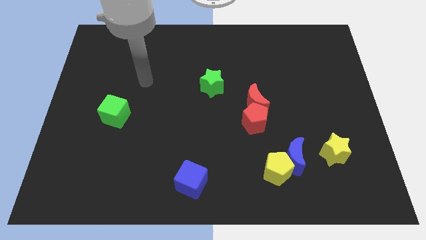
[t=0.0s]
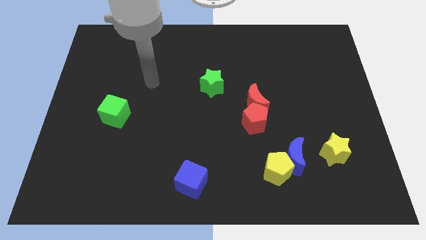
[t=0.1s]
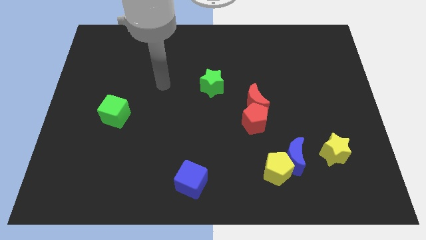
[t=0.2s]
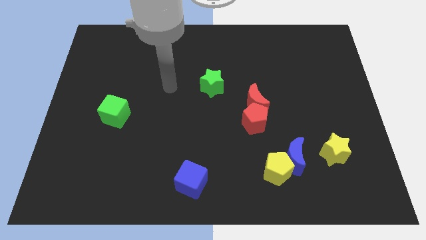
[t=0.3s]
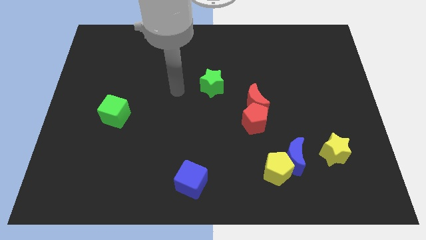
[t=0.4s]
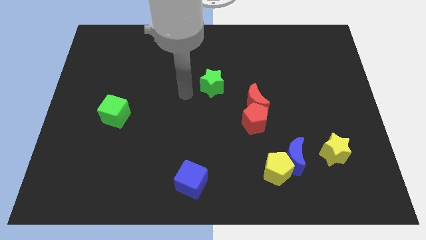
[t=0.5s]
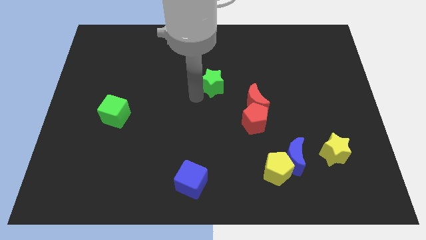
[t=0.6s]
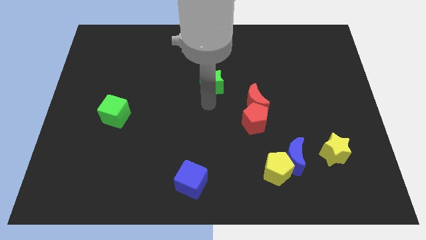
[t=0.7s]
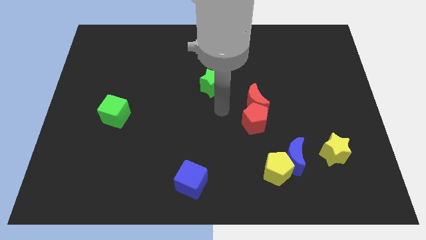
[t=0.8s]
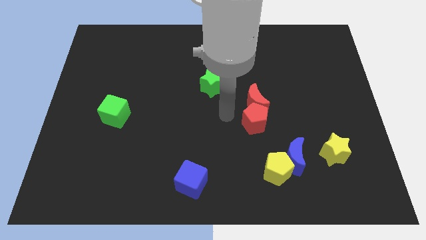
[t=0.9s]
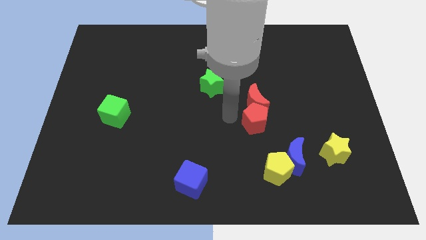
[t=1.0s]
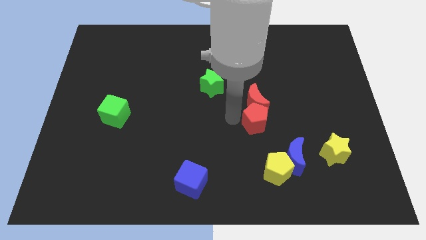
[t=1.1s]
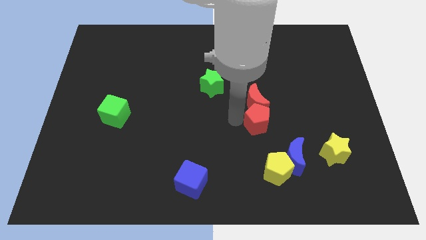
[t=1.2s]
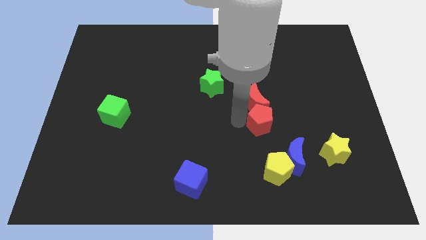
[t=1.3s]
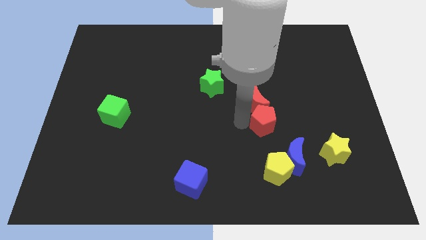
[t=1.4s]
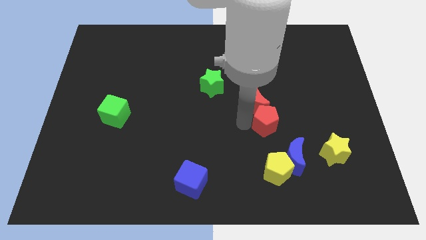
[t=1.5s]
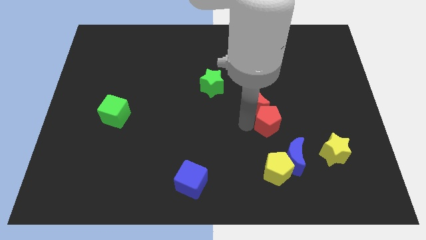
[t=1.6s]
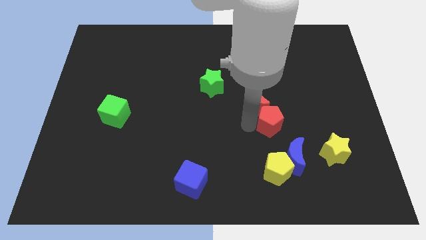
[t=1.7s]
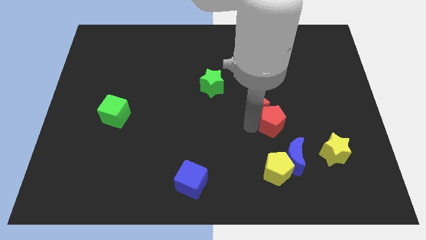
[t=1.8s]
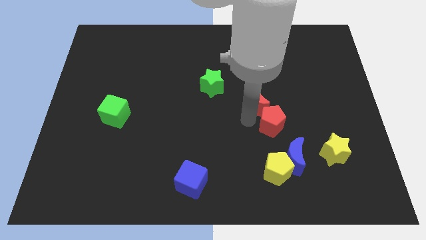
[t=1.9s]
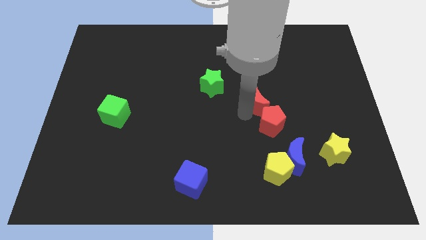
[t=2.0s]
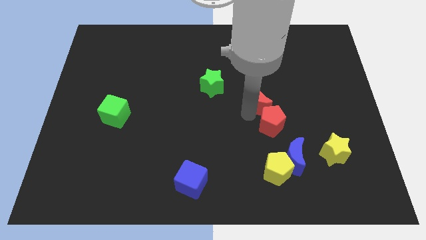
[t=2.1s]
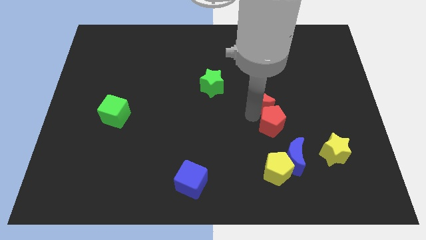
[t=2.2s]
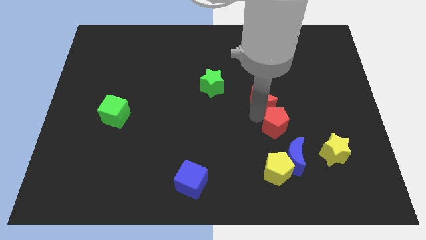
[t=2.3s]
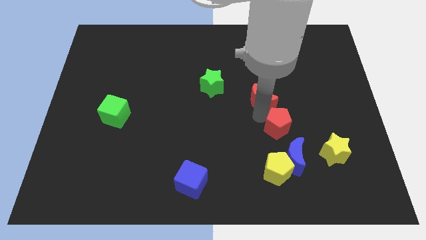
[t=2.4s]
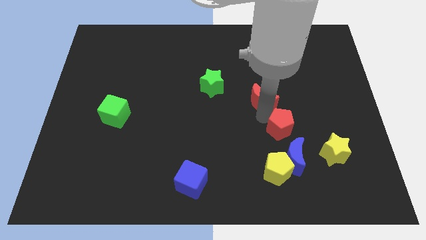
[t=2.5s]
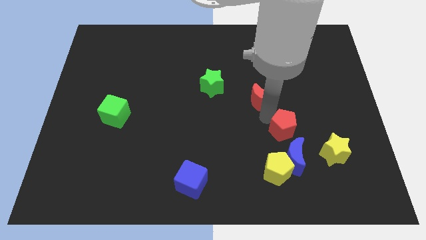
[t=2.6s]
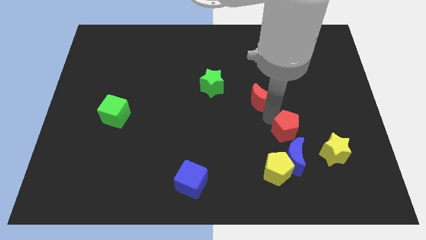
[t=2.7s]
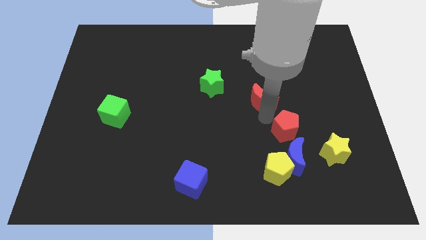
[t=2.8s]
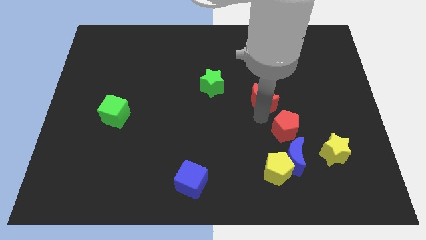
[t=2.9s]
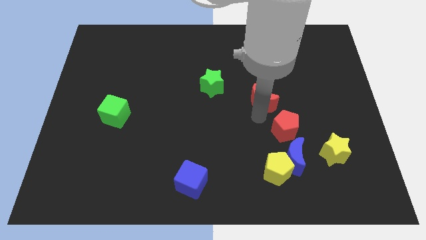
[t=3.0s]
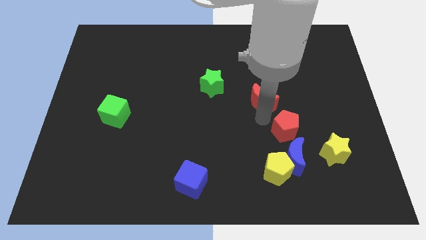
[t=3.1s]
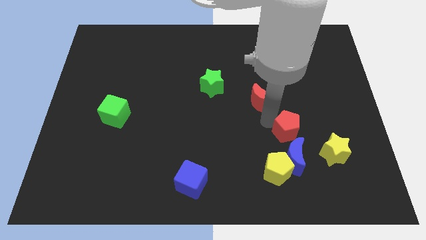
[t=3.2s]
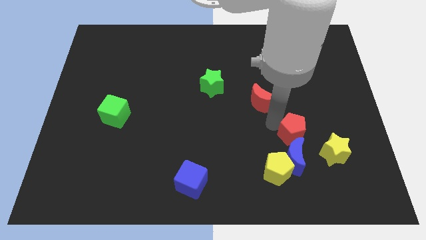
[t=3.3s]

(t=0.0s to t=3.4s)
slide the red pentagon a bit diagonally downwards and to the right

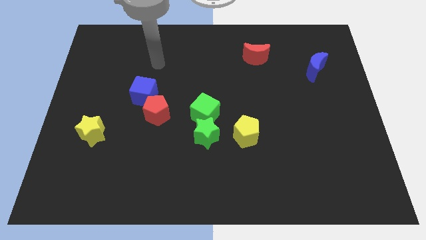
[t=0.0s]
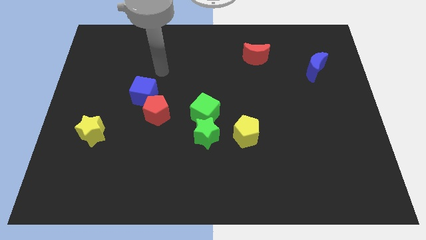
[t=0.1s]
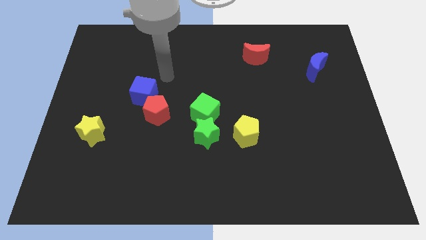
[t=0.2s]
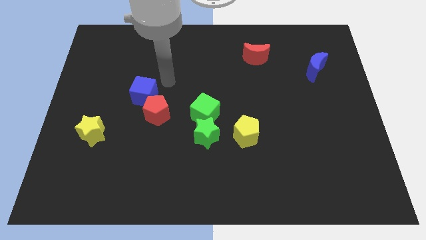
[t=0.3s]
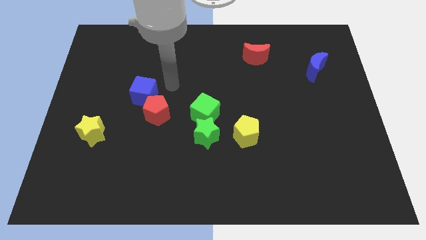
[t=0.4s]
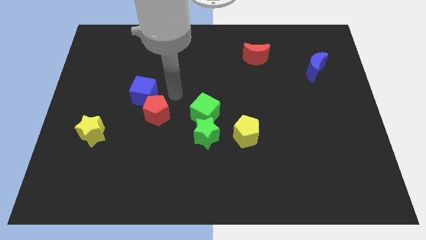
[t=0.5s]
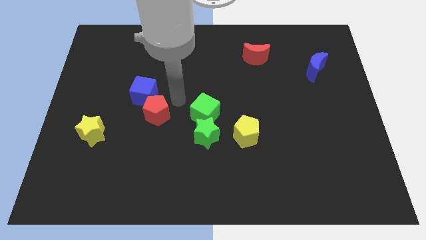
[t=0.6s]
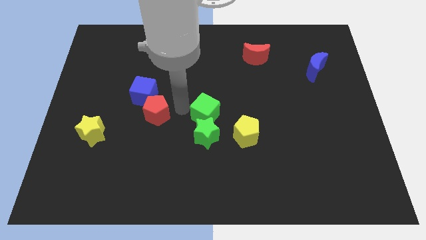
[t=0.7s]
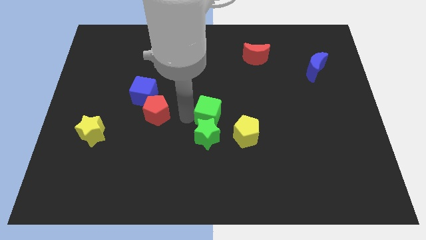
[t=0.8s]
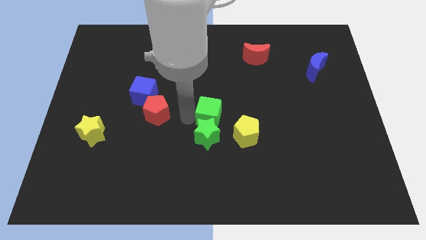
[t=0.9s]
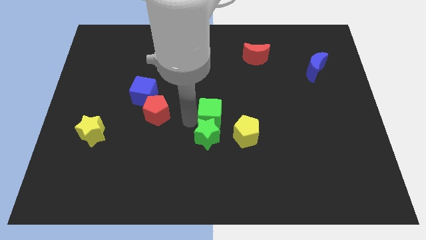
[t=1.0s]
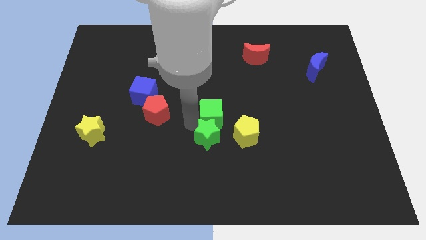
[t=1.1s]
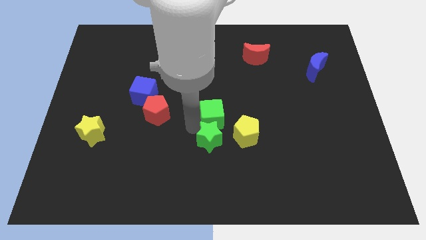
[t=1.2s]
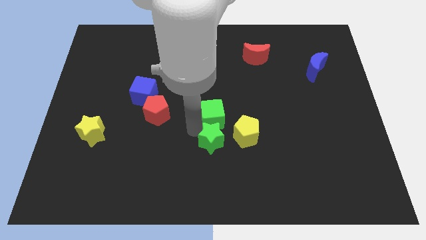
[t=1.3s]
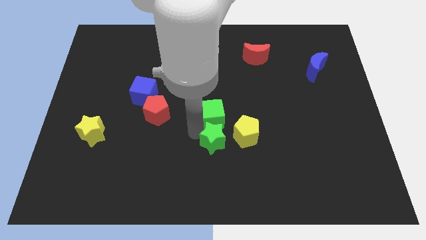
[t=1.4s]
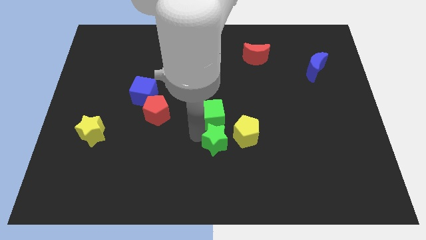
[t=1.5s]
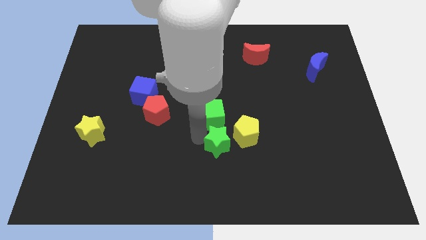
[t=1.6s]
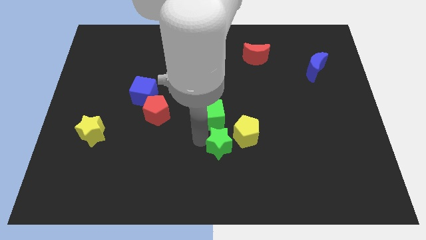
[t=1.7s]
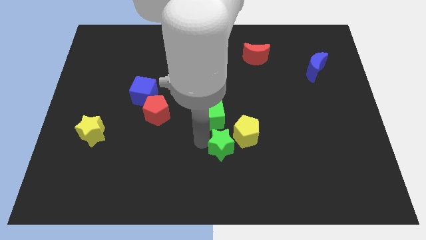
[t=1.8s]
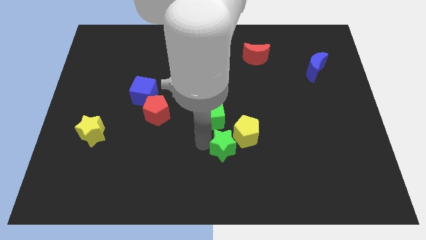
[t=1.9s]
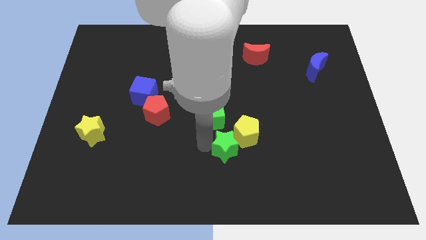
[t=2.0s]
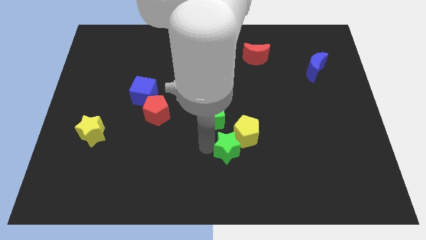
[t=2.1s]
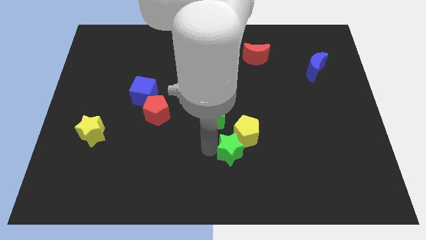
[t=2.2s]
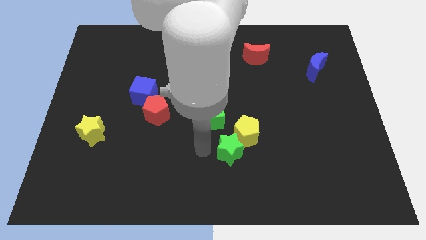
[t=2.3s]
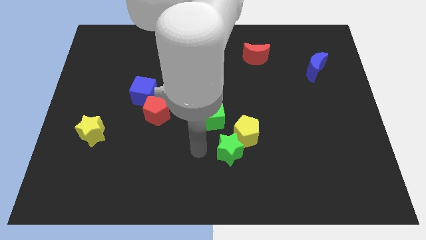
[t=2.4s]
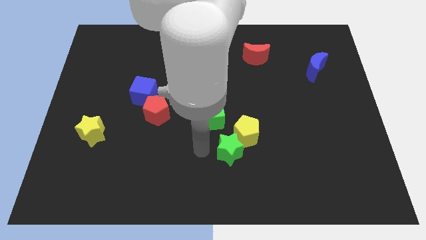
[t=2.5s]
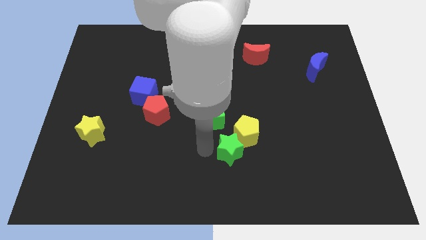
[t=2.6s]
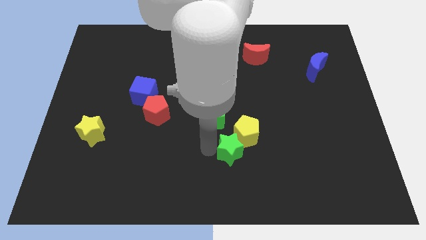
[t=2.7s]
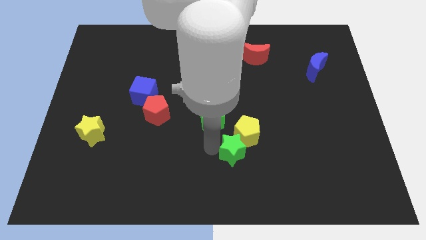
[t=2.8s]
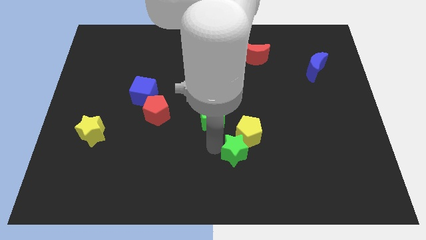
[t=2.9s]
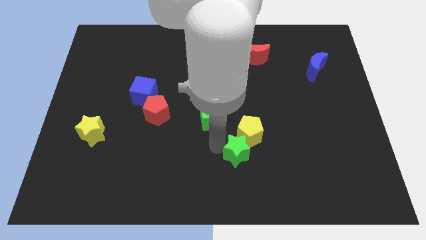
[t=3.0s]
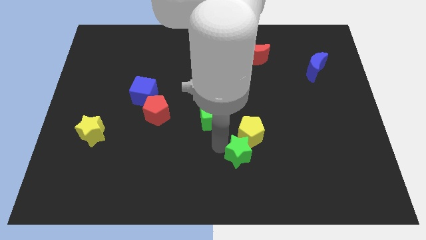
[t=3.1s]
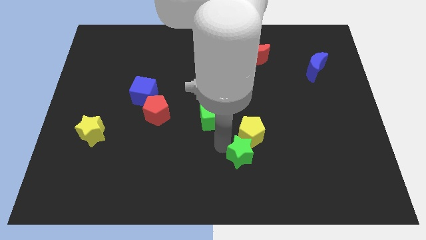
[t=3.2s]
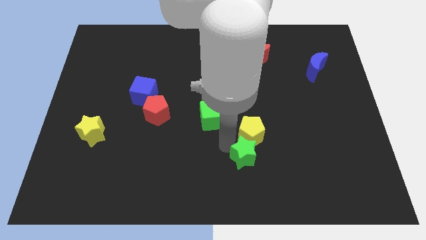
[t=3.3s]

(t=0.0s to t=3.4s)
slide the green star slightly right

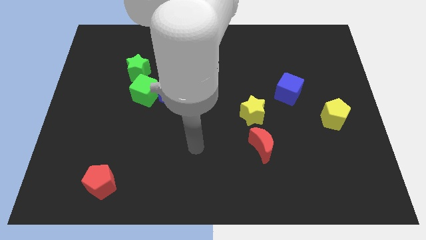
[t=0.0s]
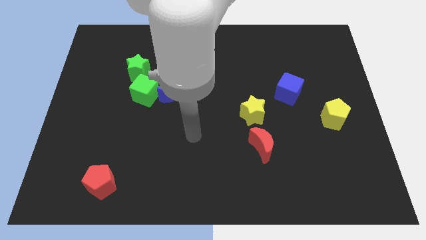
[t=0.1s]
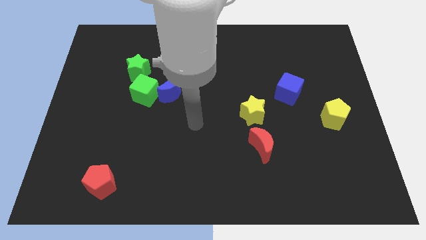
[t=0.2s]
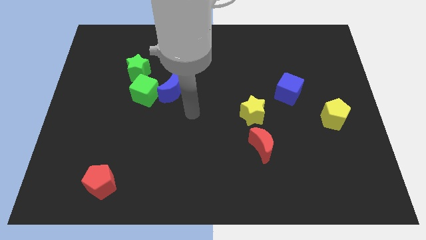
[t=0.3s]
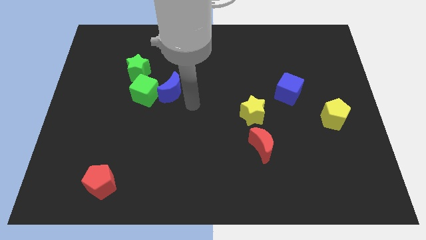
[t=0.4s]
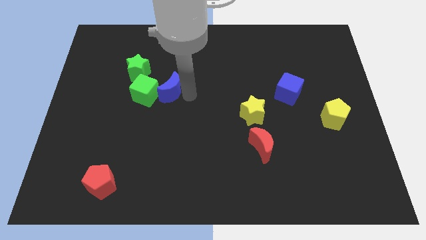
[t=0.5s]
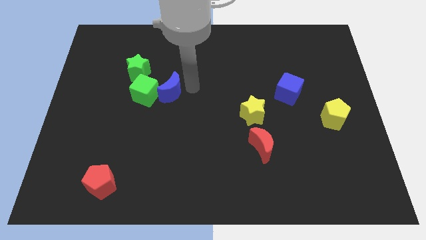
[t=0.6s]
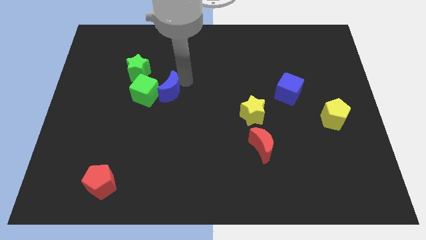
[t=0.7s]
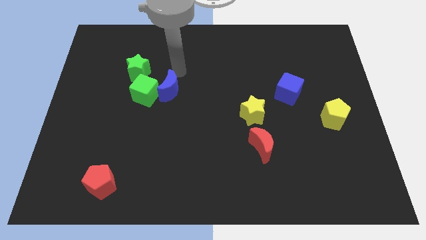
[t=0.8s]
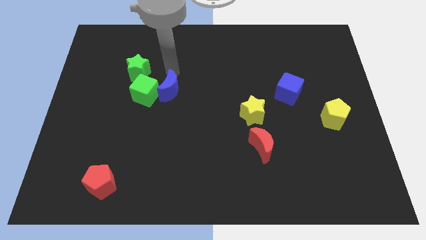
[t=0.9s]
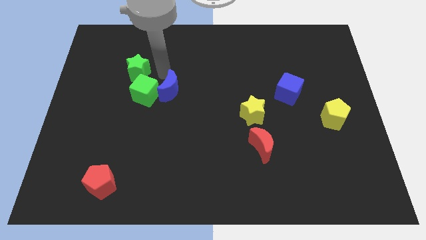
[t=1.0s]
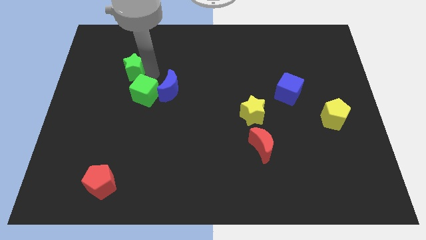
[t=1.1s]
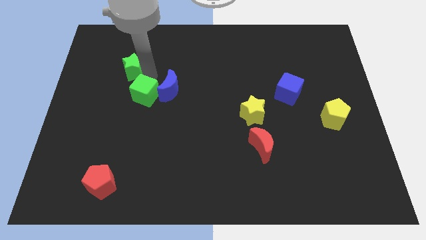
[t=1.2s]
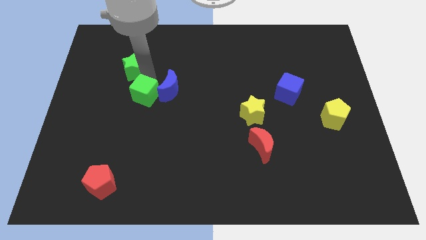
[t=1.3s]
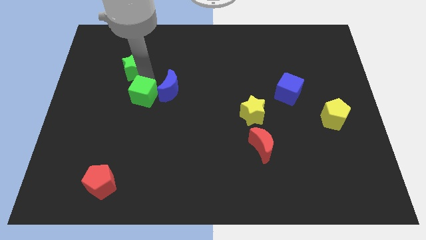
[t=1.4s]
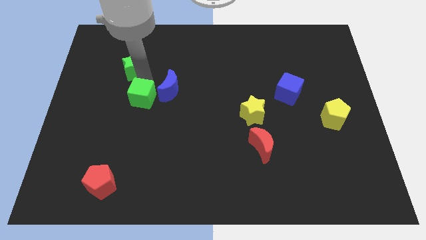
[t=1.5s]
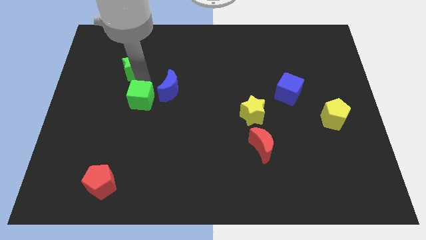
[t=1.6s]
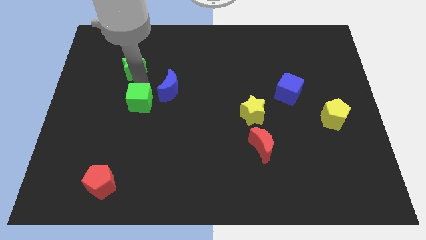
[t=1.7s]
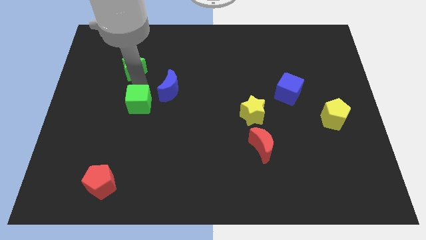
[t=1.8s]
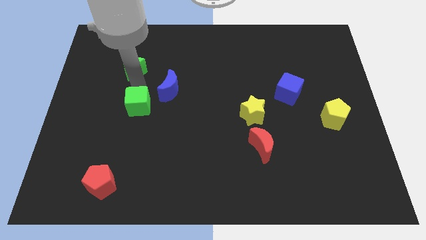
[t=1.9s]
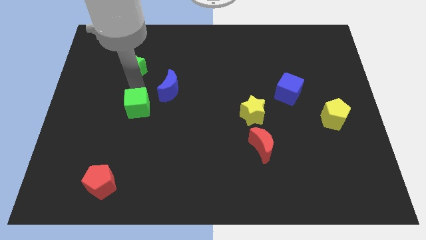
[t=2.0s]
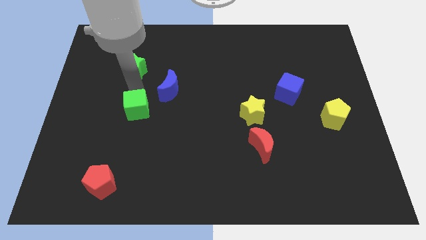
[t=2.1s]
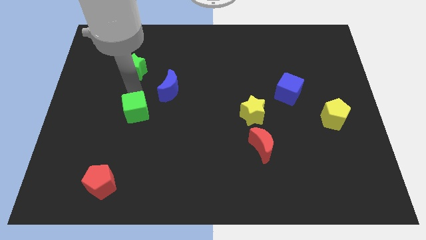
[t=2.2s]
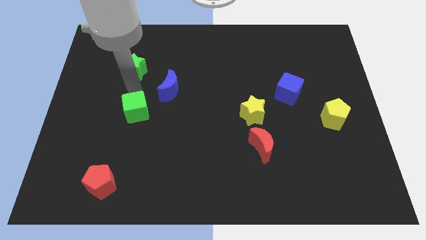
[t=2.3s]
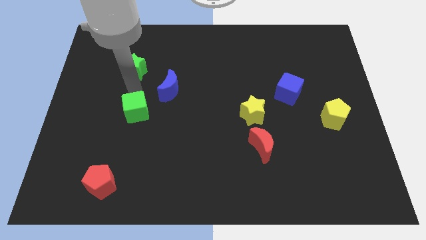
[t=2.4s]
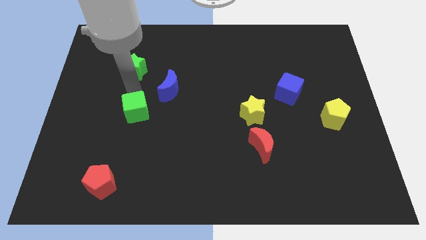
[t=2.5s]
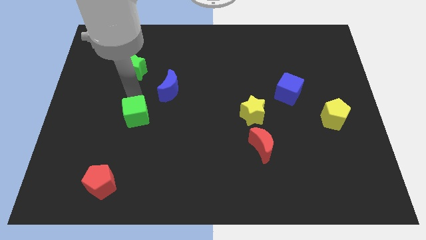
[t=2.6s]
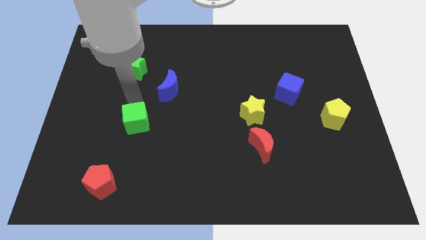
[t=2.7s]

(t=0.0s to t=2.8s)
move the green cube a little bit down
